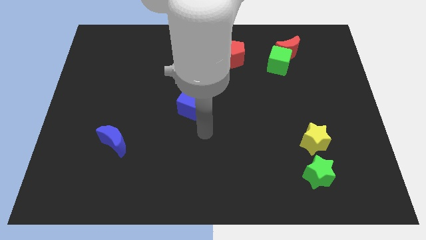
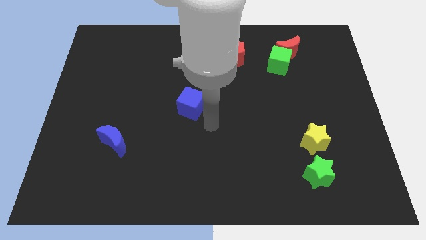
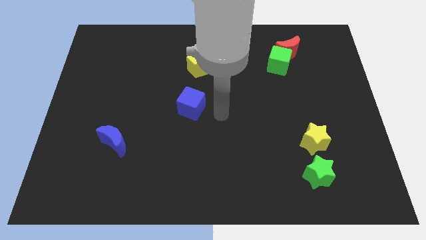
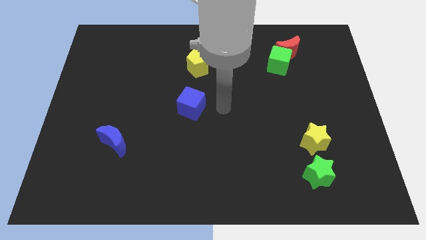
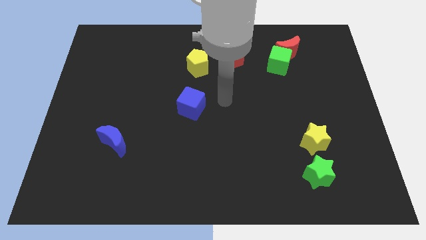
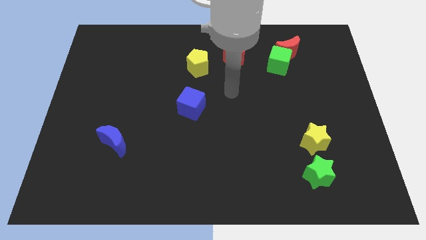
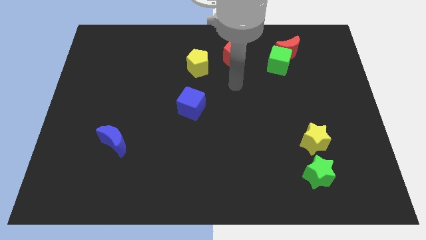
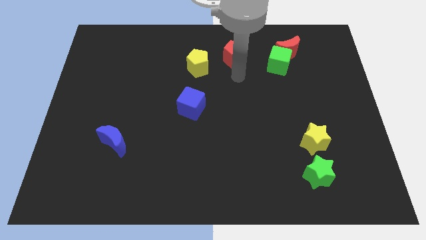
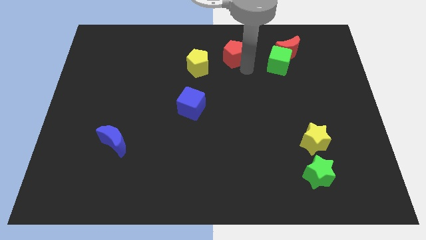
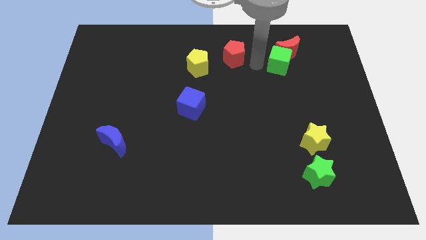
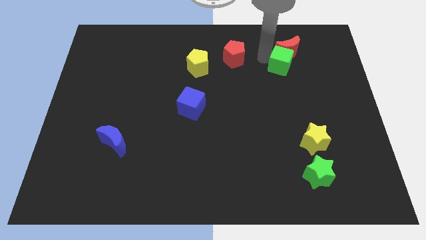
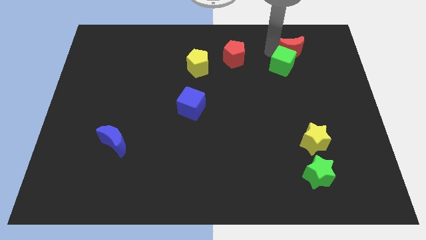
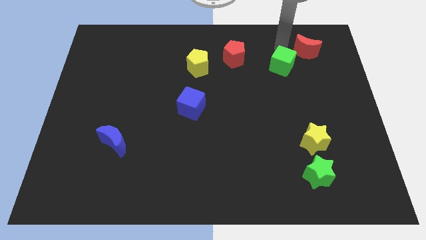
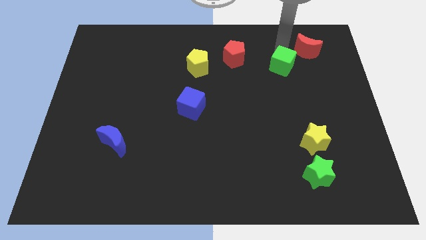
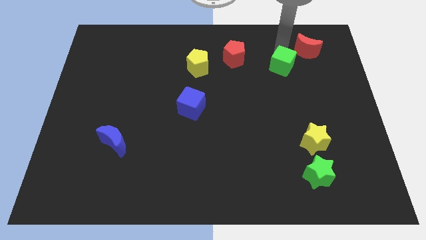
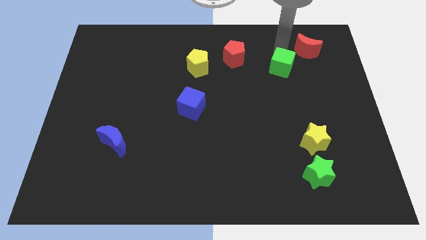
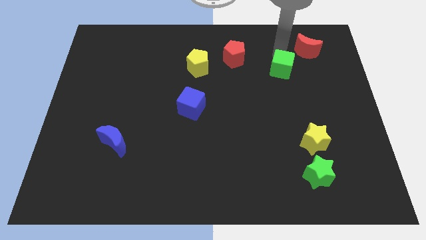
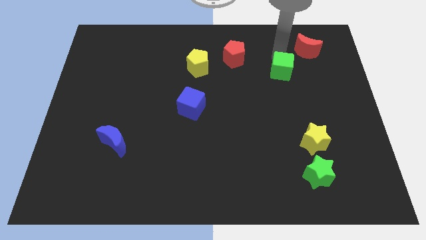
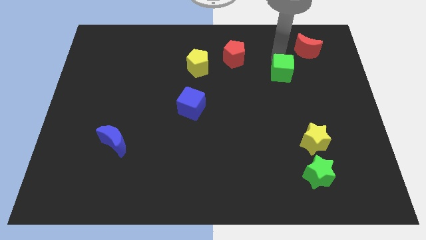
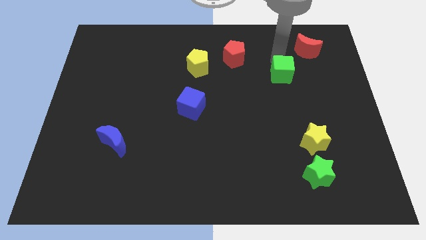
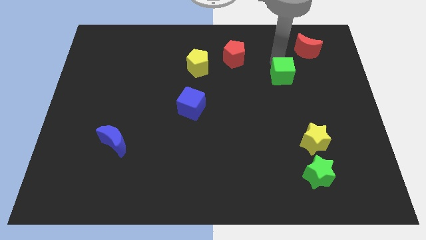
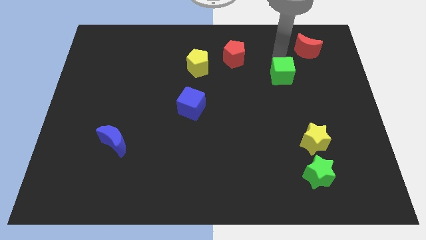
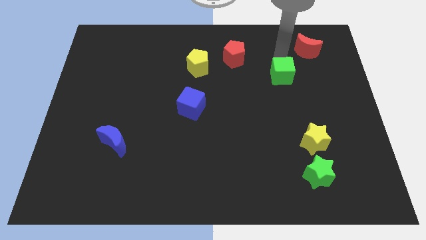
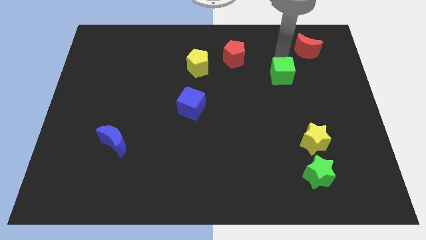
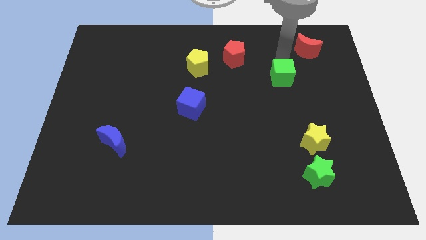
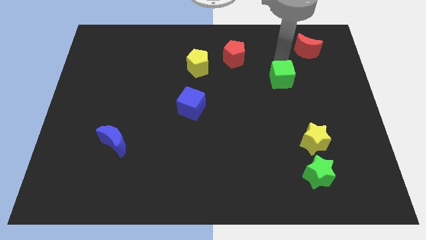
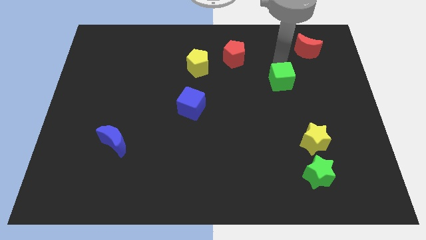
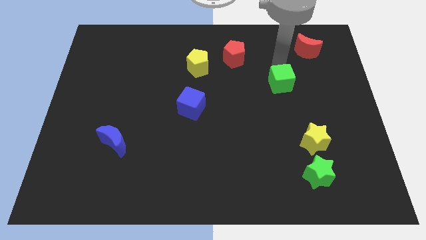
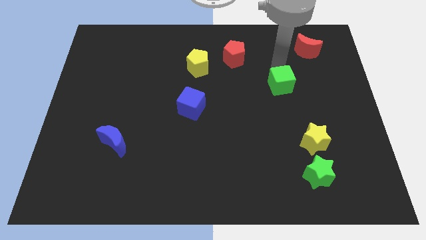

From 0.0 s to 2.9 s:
push the green cube a bit down

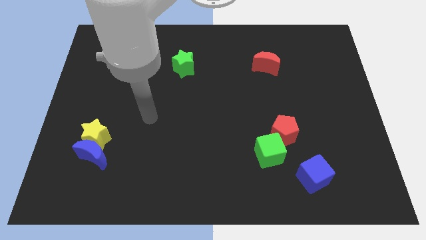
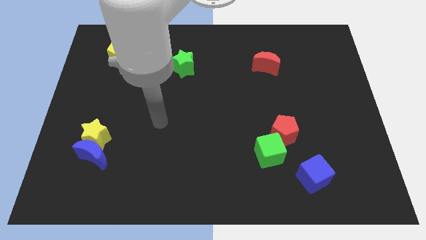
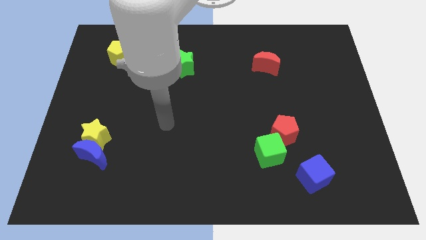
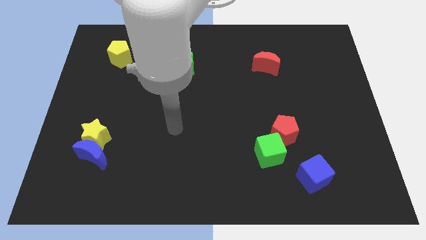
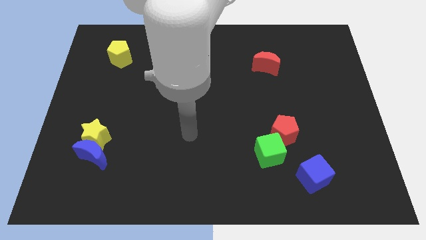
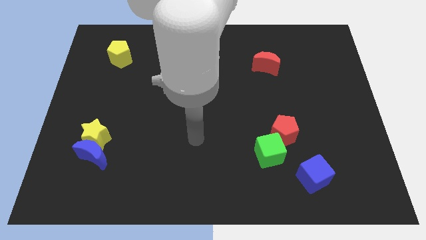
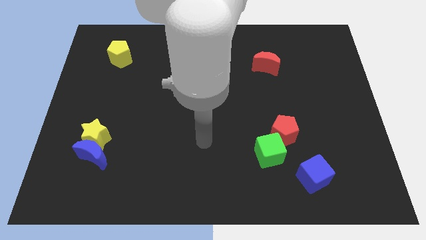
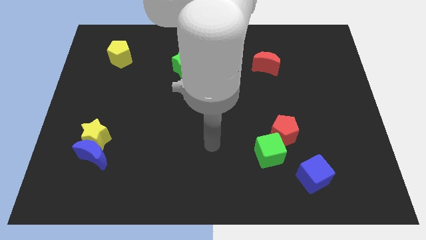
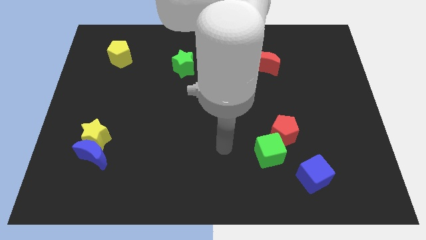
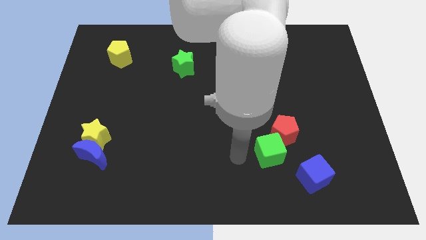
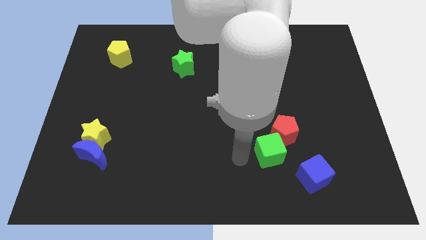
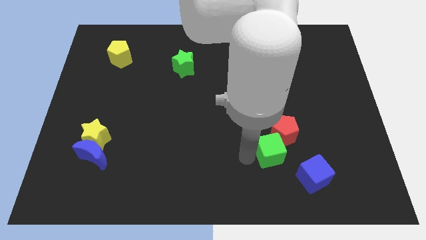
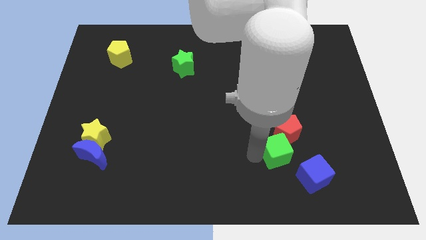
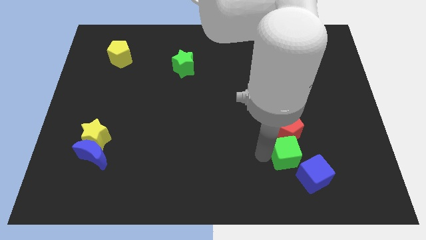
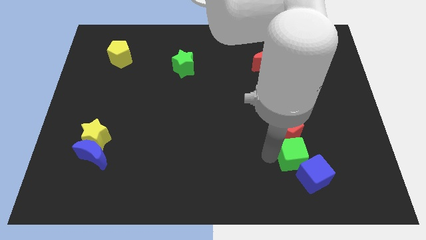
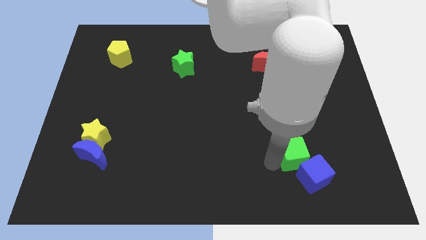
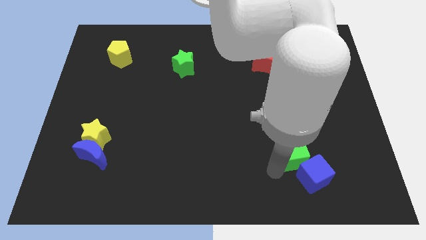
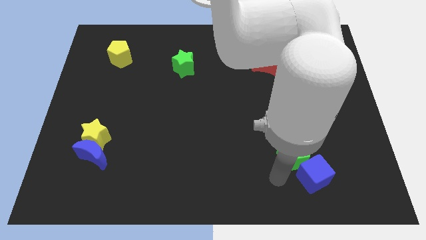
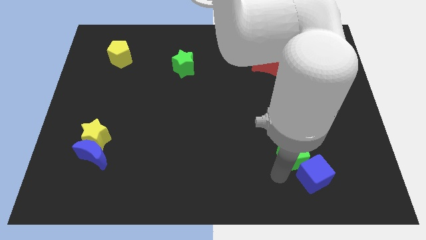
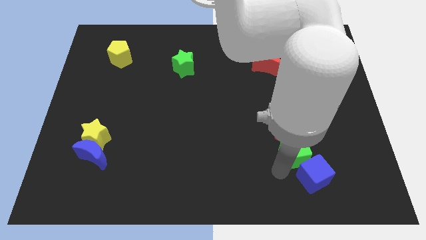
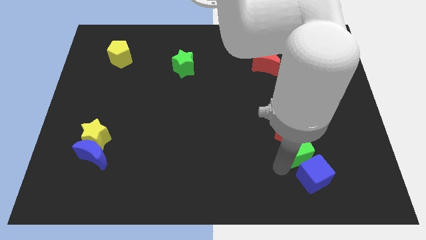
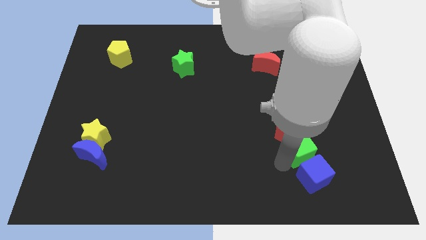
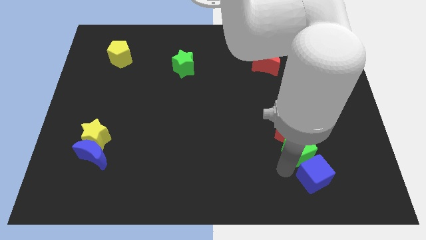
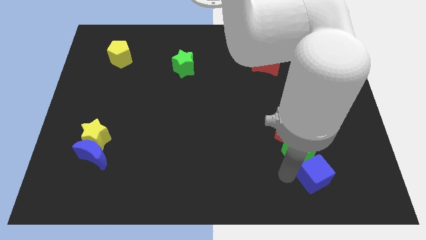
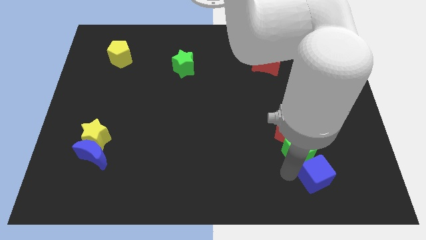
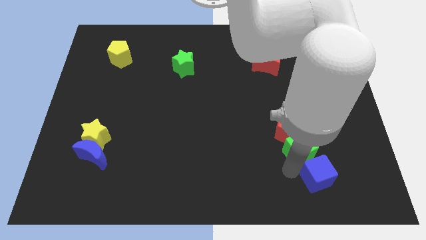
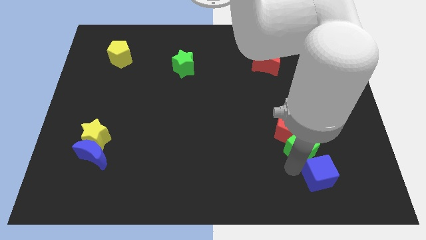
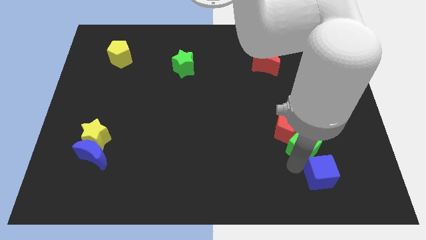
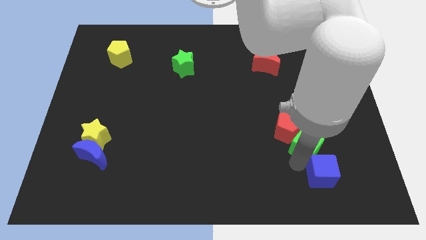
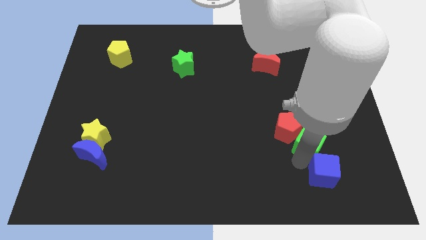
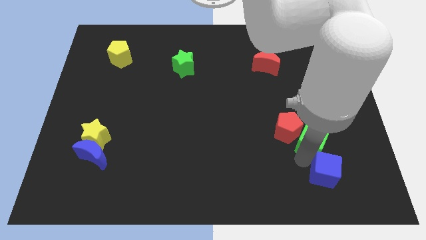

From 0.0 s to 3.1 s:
slightly push the green cube up and then right

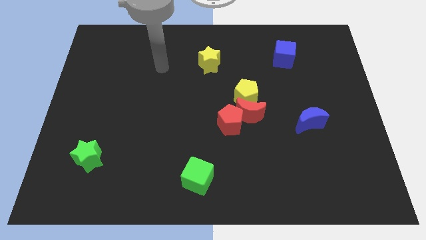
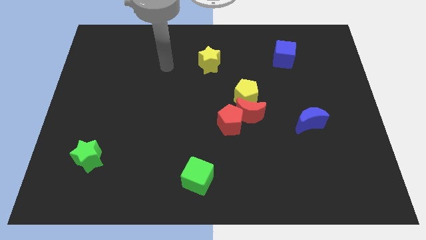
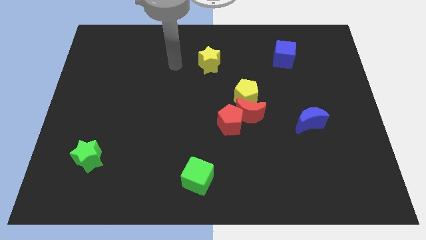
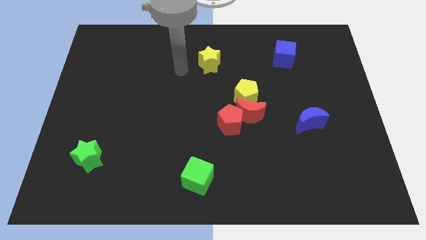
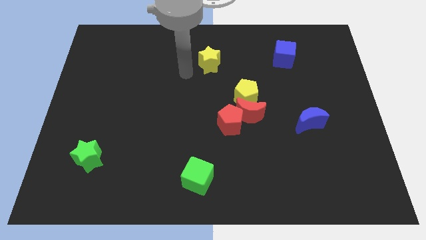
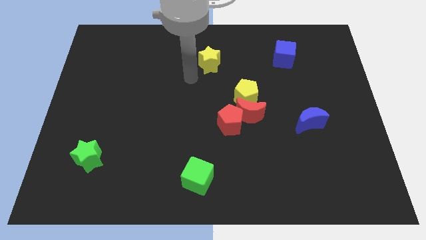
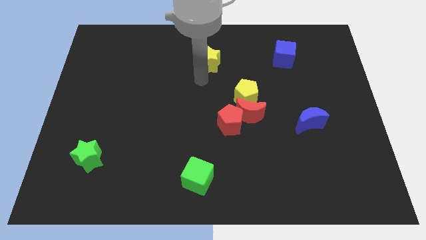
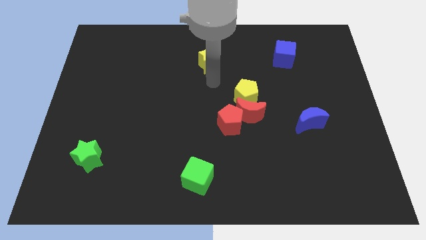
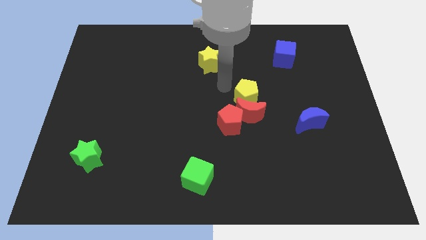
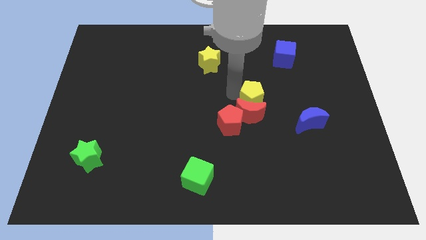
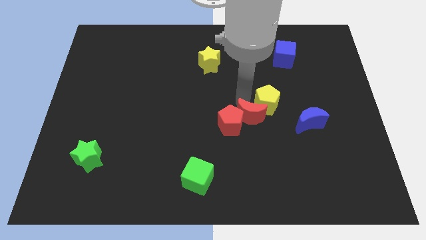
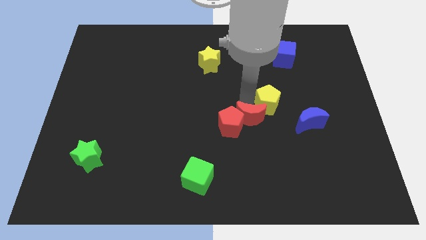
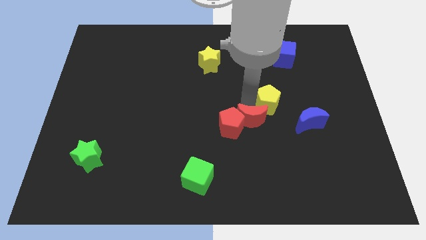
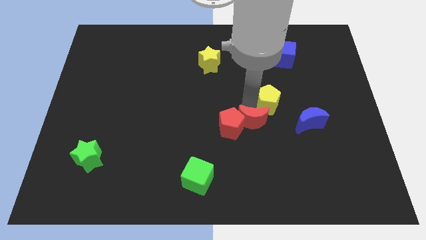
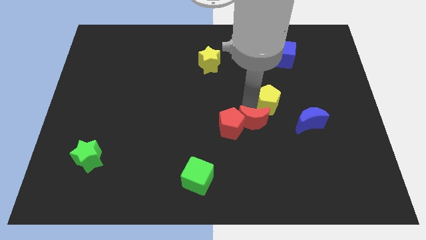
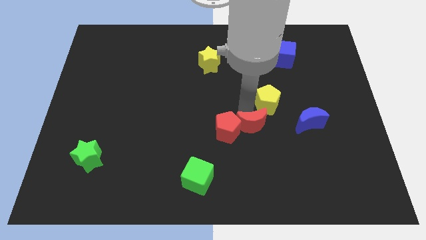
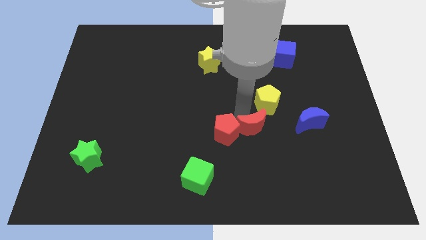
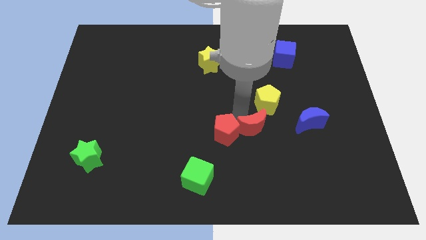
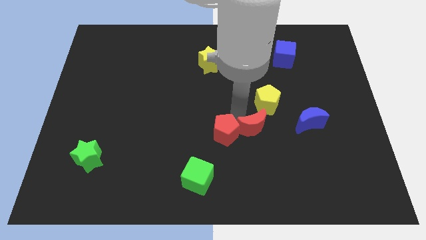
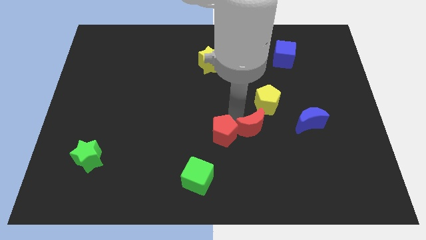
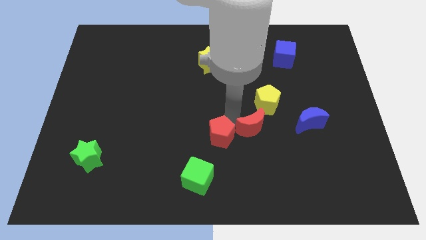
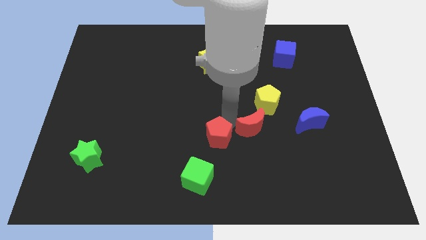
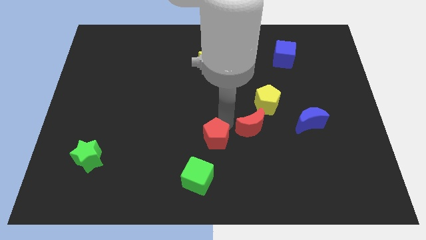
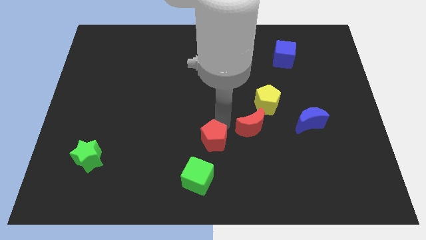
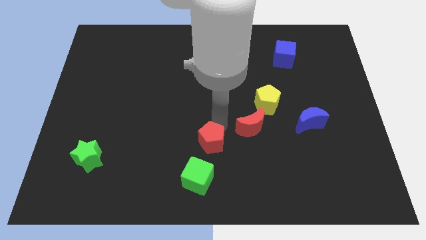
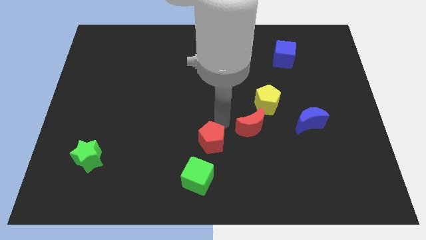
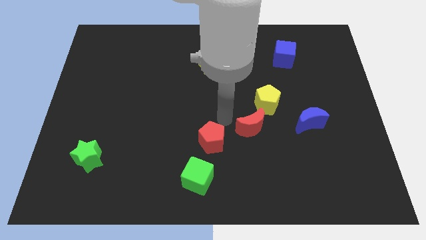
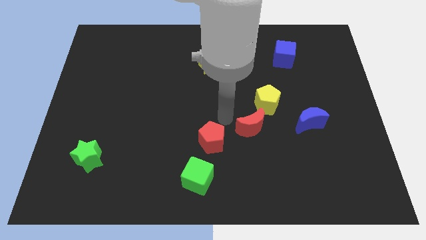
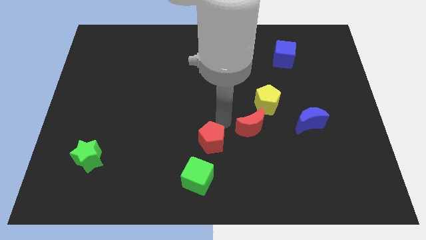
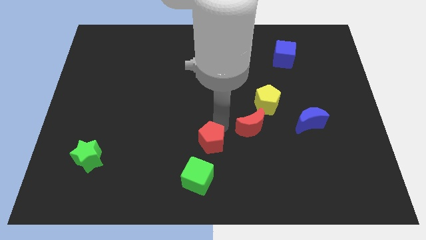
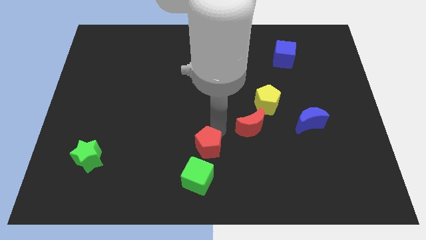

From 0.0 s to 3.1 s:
move the red pentagon slightly diagonally down and left
